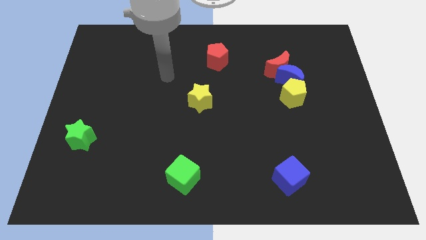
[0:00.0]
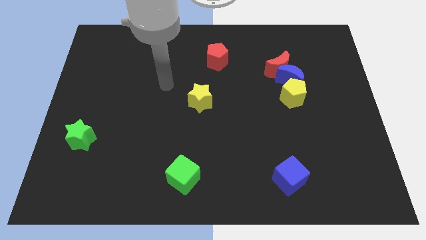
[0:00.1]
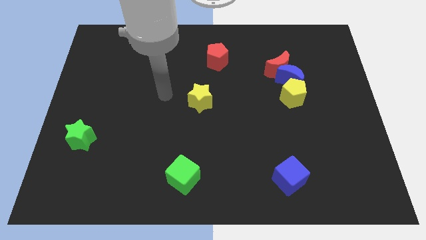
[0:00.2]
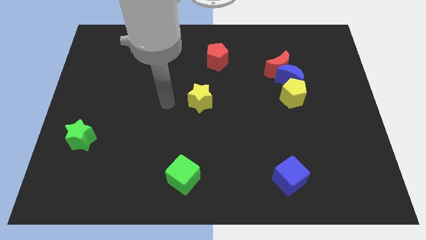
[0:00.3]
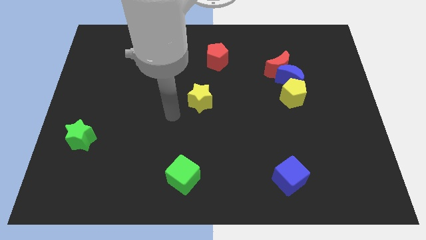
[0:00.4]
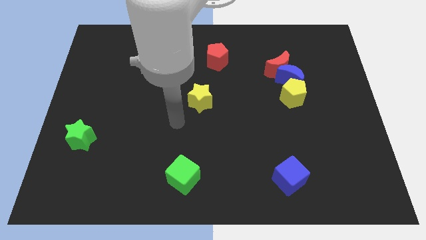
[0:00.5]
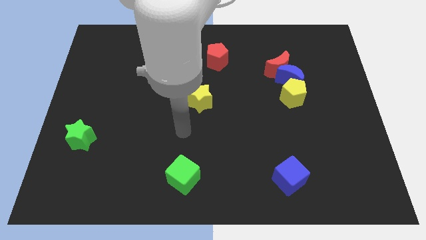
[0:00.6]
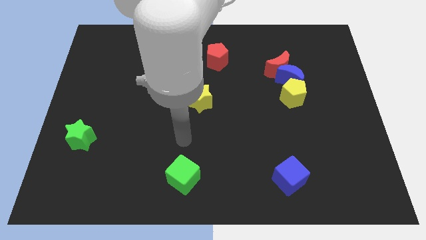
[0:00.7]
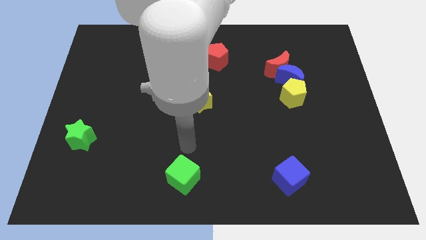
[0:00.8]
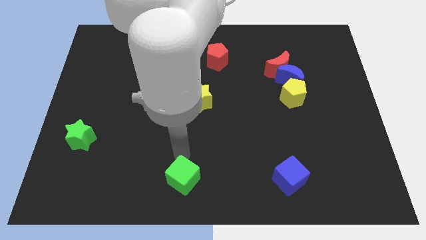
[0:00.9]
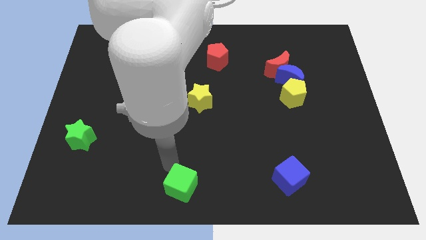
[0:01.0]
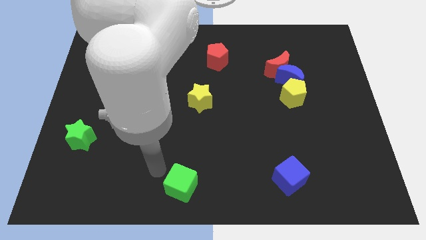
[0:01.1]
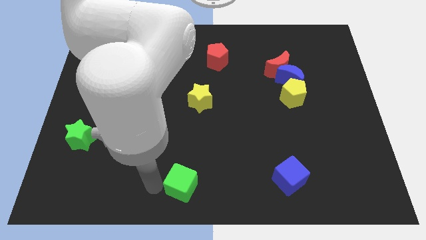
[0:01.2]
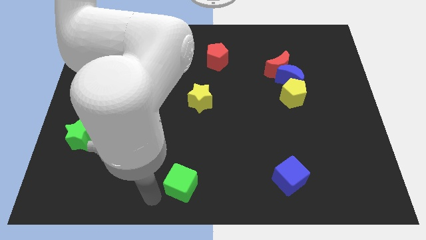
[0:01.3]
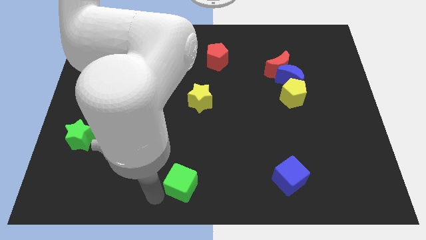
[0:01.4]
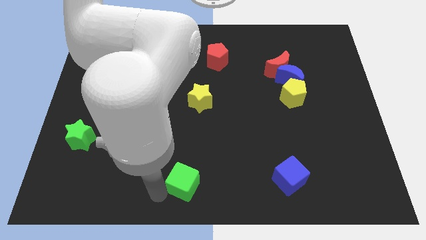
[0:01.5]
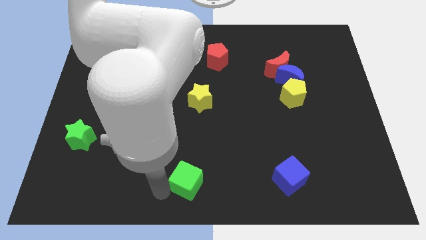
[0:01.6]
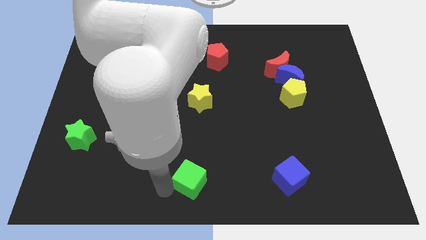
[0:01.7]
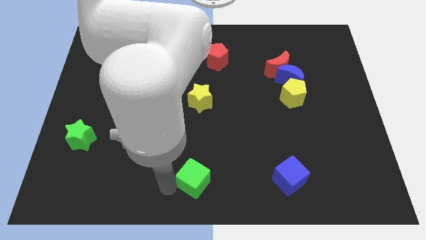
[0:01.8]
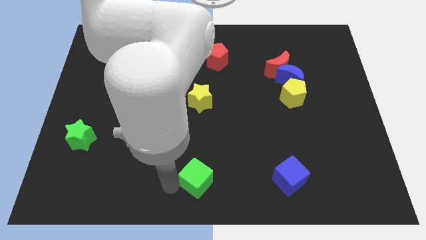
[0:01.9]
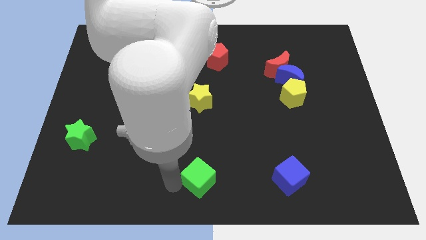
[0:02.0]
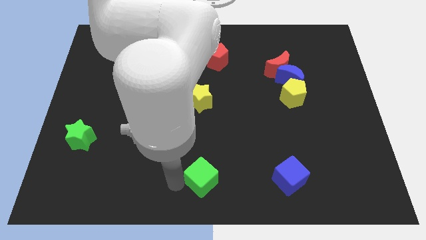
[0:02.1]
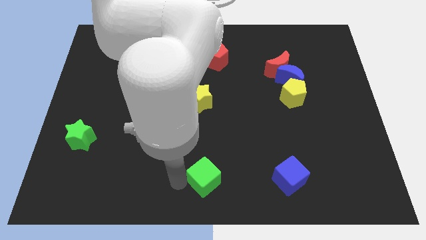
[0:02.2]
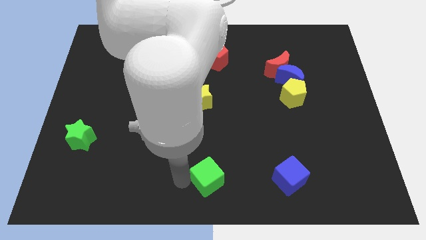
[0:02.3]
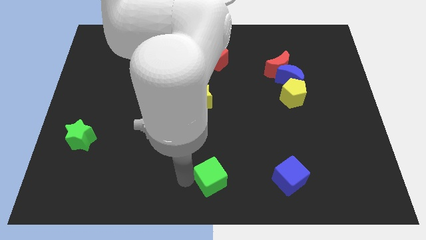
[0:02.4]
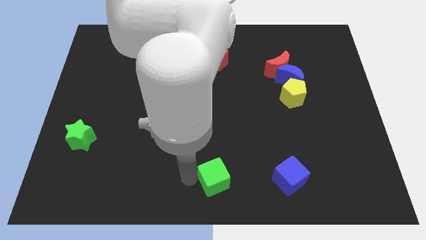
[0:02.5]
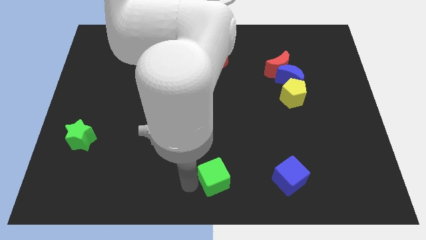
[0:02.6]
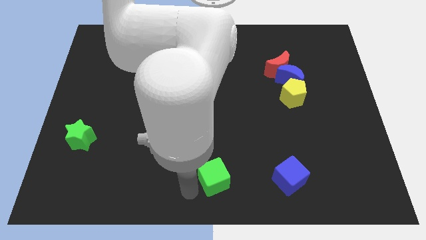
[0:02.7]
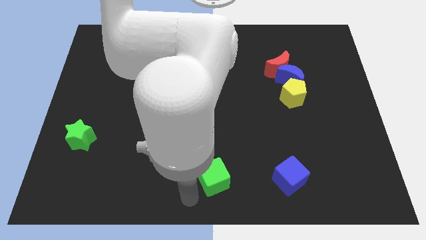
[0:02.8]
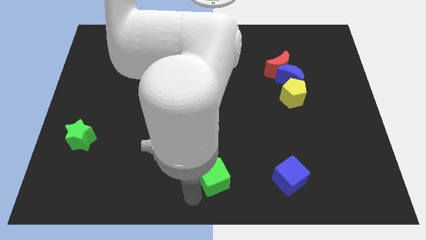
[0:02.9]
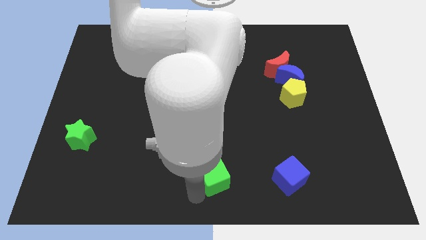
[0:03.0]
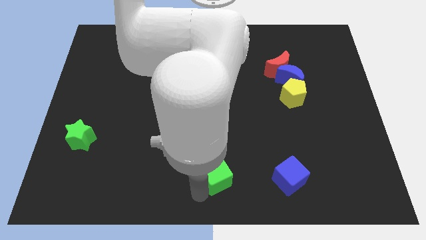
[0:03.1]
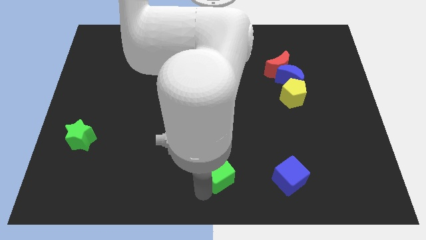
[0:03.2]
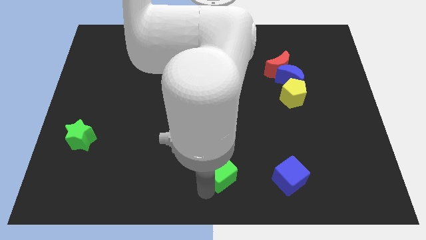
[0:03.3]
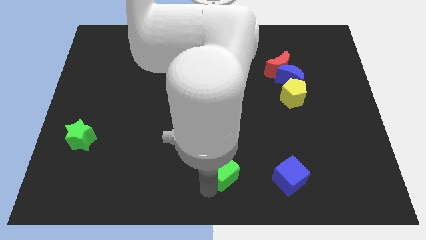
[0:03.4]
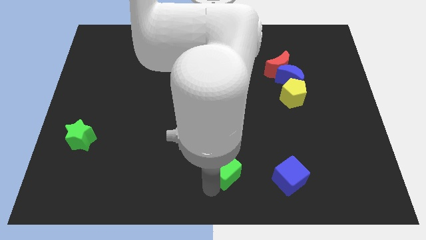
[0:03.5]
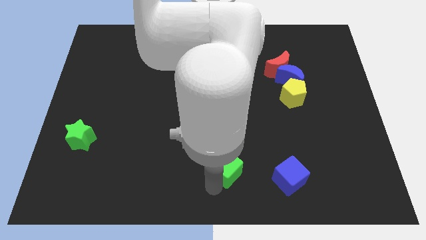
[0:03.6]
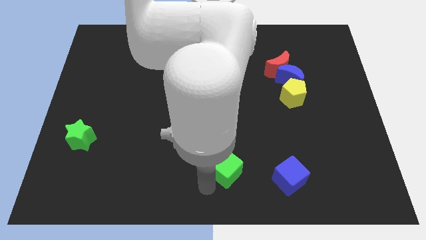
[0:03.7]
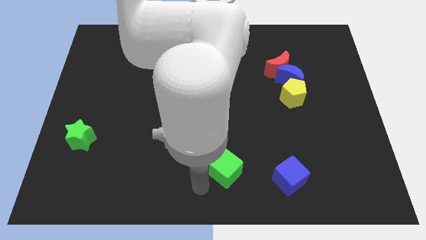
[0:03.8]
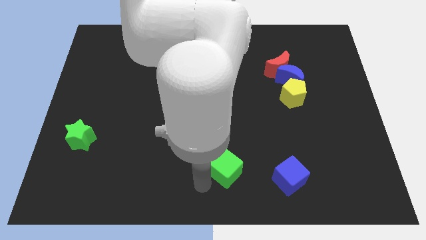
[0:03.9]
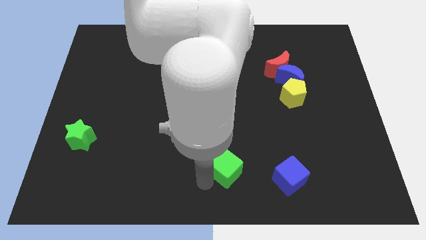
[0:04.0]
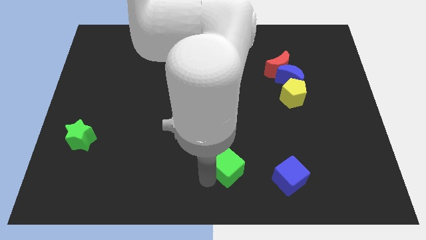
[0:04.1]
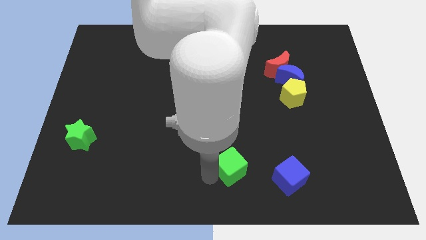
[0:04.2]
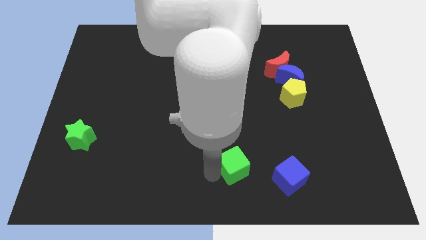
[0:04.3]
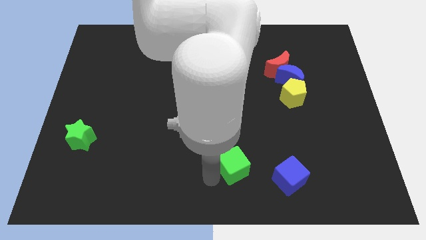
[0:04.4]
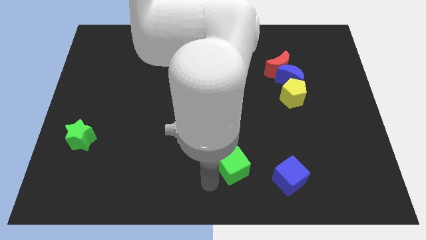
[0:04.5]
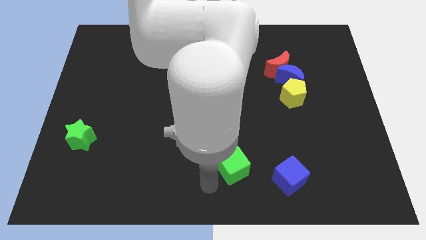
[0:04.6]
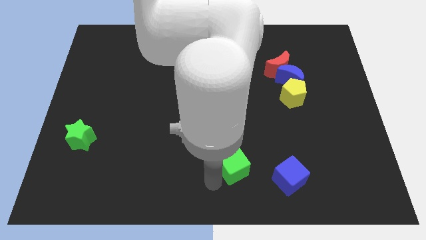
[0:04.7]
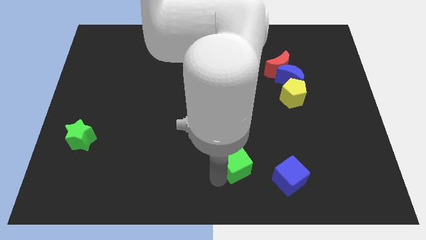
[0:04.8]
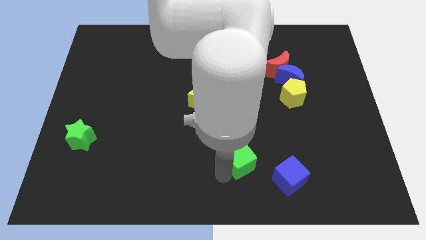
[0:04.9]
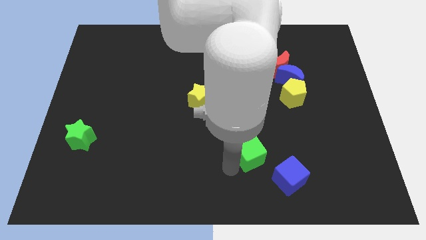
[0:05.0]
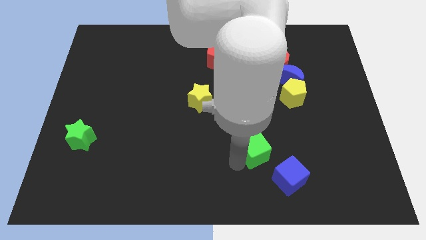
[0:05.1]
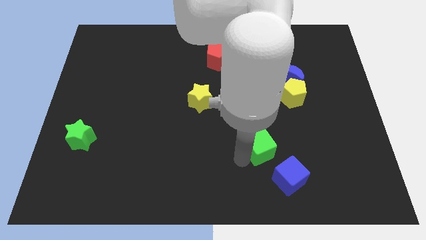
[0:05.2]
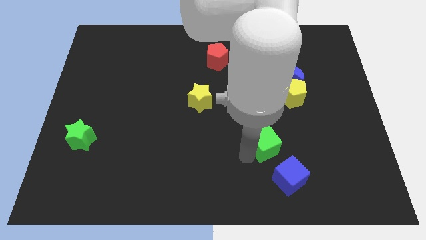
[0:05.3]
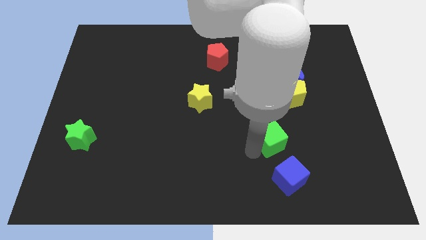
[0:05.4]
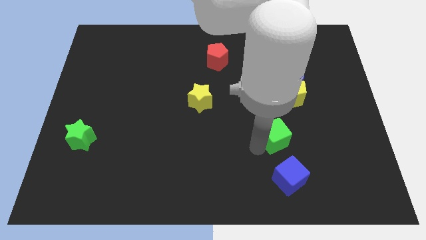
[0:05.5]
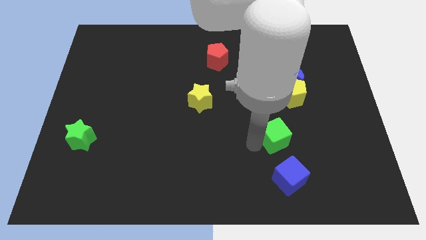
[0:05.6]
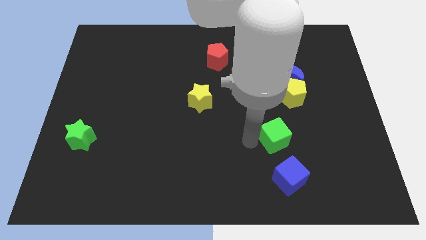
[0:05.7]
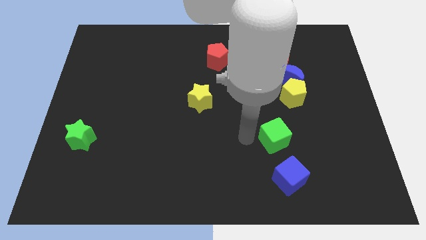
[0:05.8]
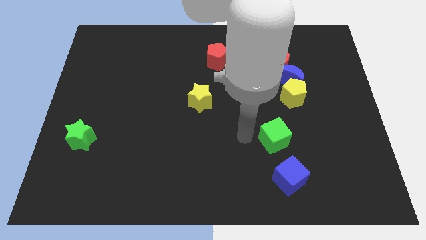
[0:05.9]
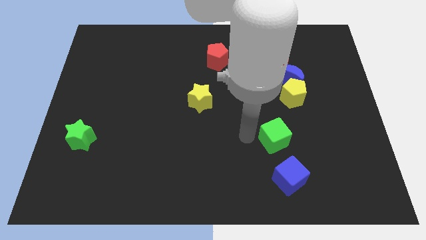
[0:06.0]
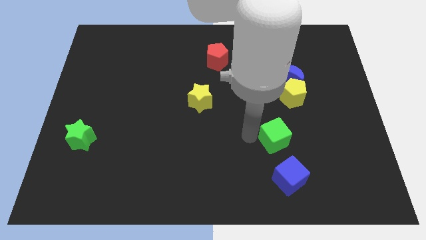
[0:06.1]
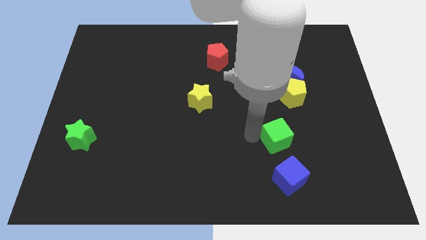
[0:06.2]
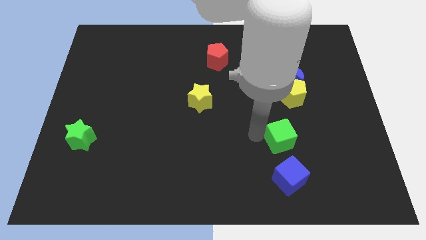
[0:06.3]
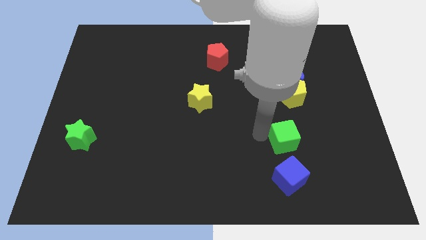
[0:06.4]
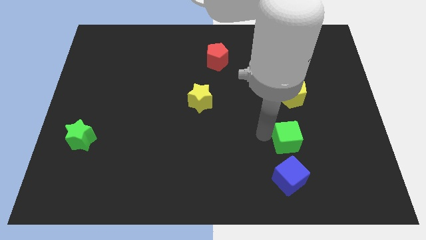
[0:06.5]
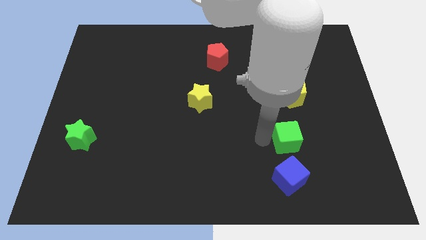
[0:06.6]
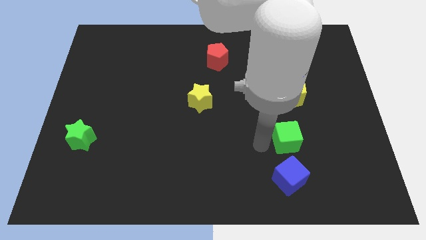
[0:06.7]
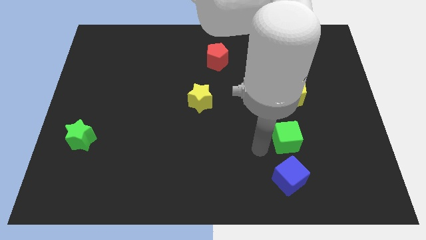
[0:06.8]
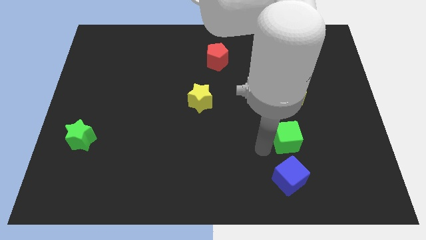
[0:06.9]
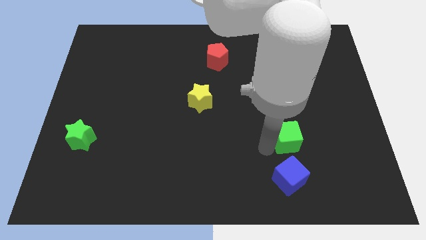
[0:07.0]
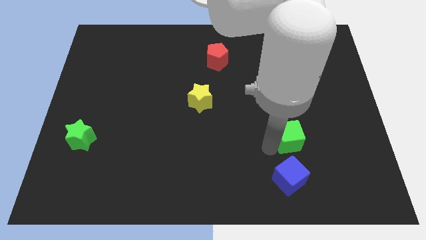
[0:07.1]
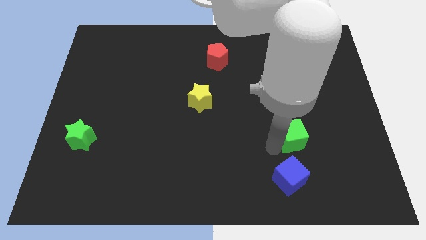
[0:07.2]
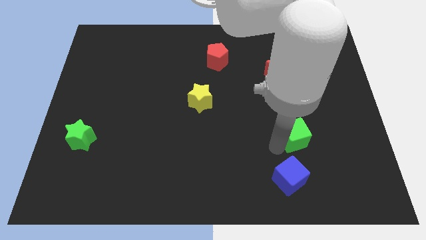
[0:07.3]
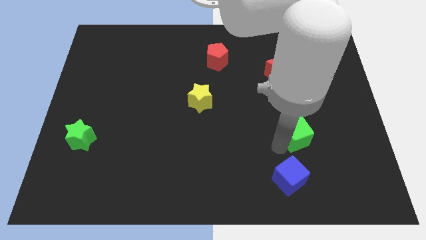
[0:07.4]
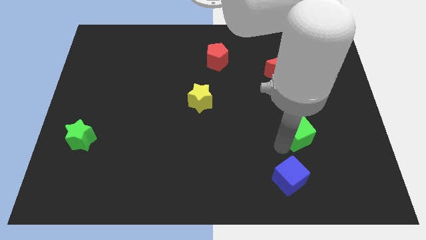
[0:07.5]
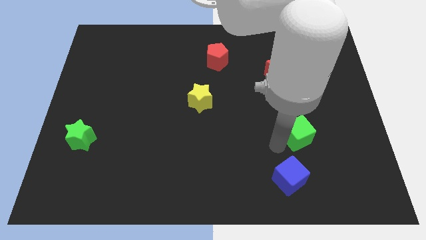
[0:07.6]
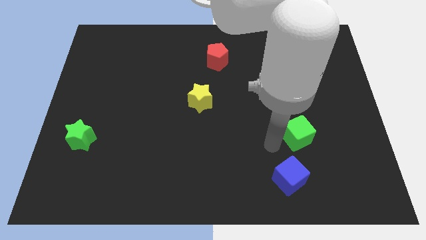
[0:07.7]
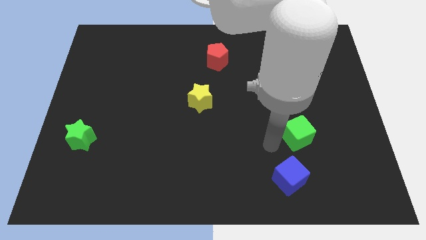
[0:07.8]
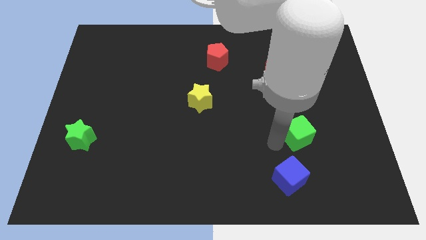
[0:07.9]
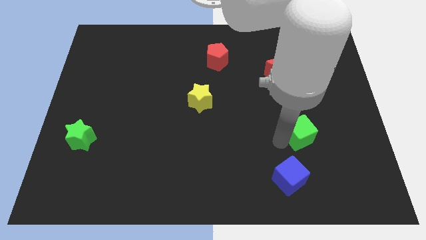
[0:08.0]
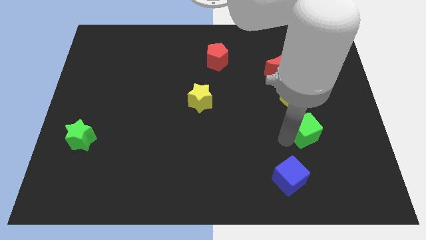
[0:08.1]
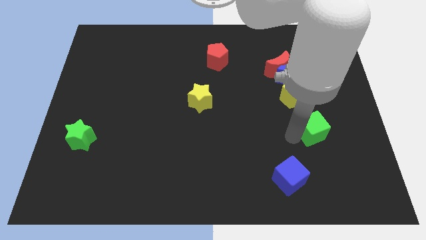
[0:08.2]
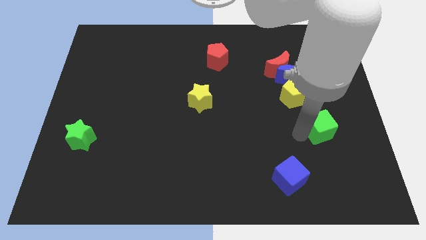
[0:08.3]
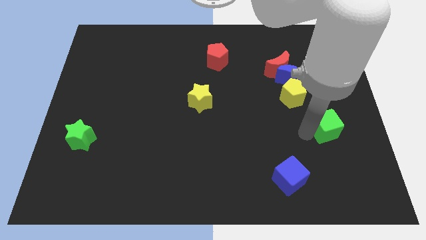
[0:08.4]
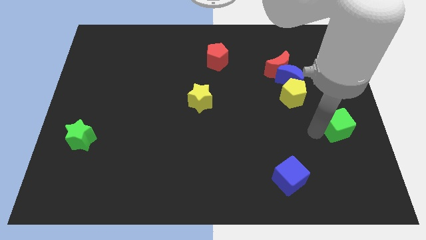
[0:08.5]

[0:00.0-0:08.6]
move the green cube to the center right
